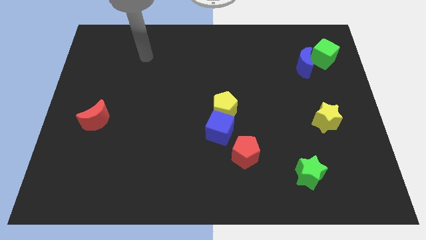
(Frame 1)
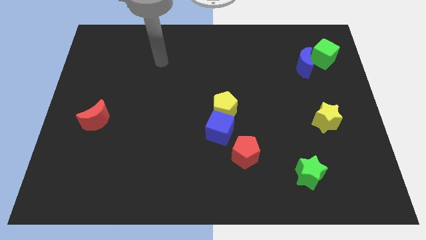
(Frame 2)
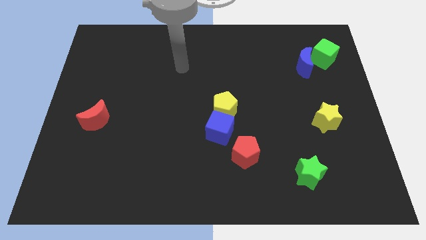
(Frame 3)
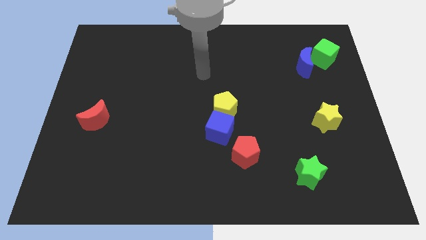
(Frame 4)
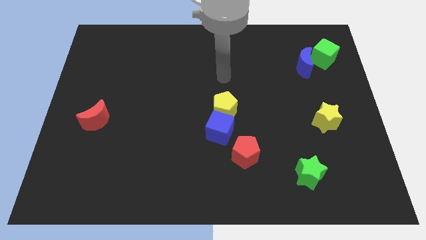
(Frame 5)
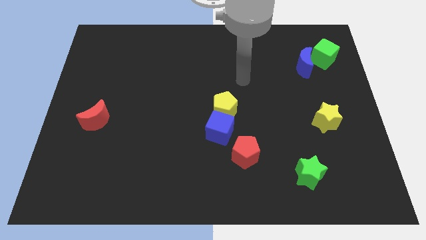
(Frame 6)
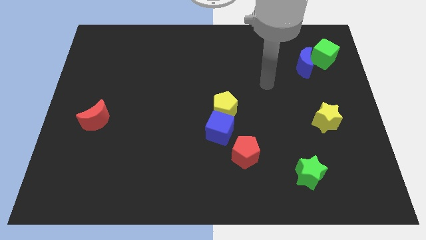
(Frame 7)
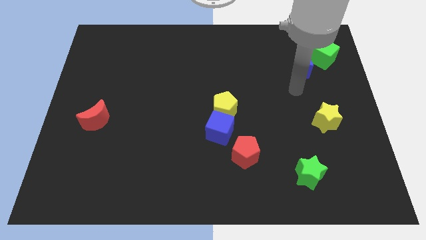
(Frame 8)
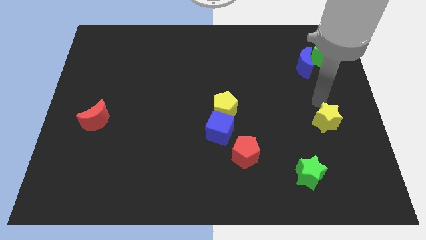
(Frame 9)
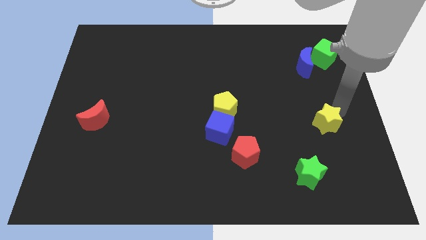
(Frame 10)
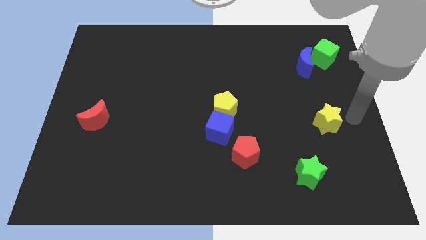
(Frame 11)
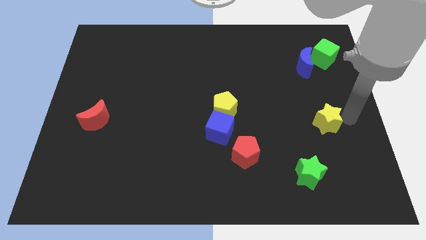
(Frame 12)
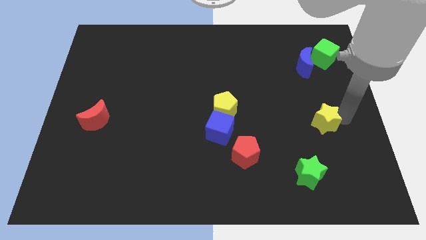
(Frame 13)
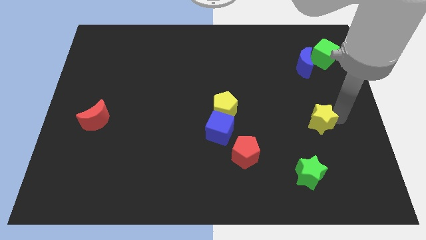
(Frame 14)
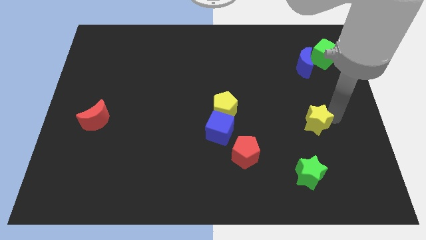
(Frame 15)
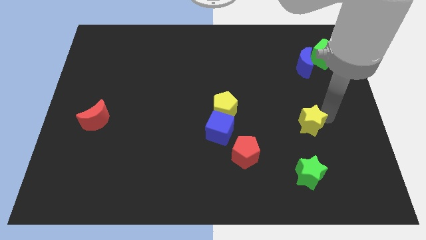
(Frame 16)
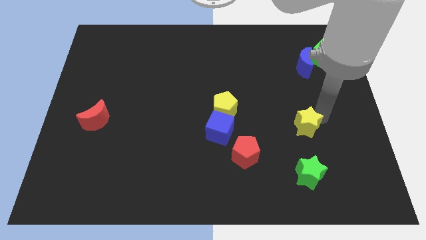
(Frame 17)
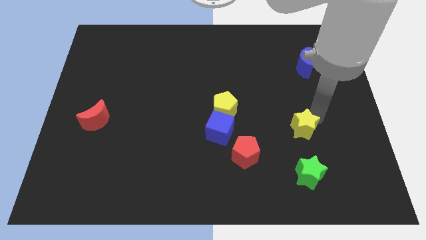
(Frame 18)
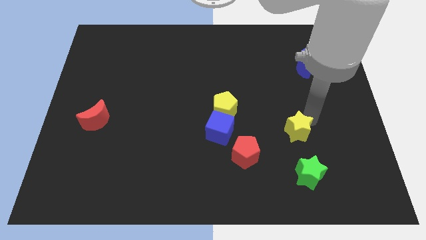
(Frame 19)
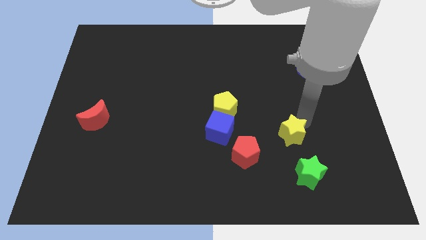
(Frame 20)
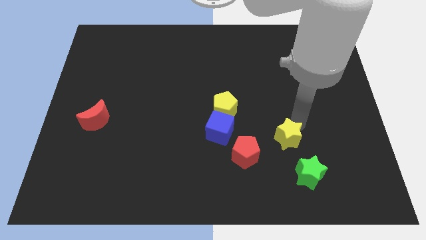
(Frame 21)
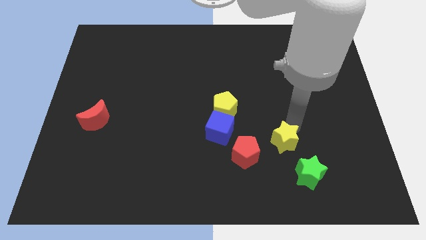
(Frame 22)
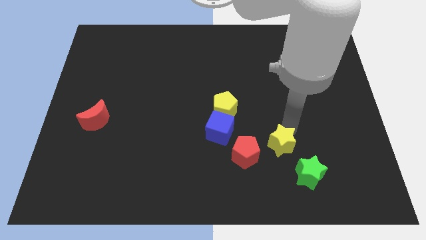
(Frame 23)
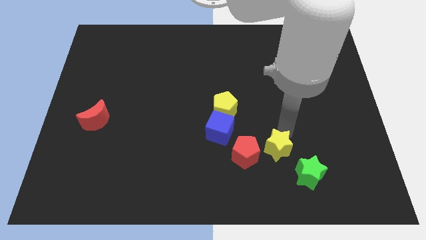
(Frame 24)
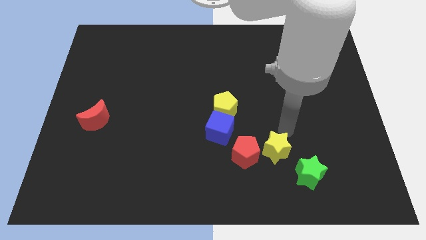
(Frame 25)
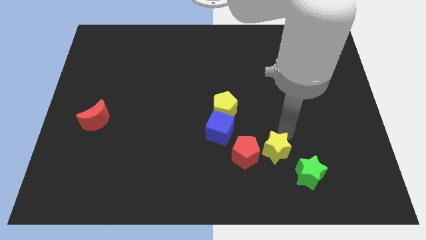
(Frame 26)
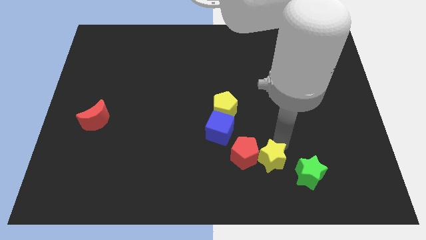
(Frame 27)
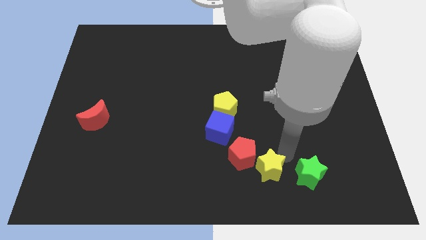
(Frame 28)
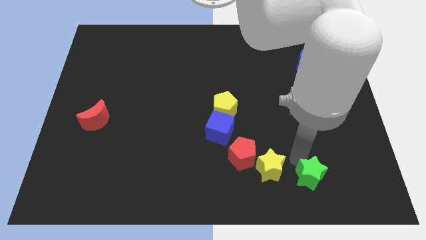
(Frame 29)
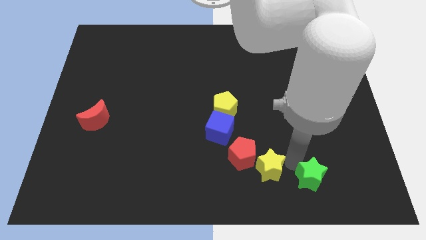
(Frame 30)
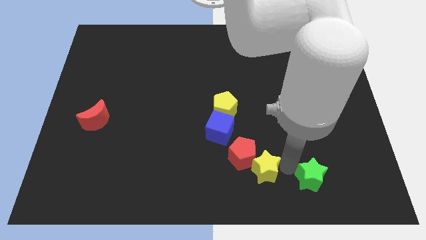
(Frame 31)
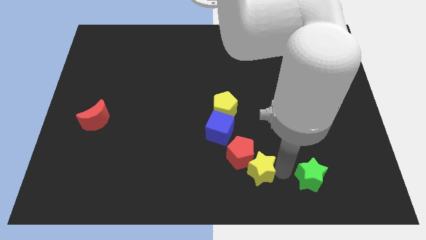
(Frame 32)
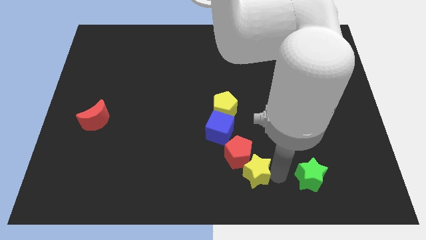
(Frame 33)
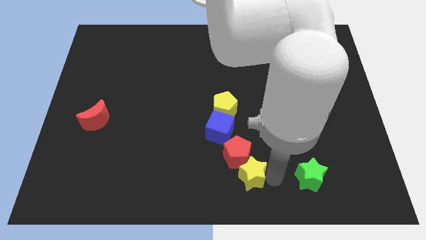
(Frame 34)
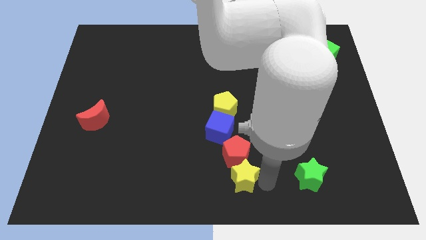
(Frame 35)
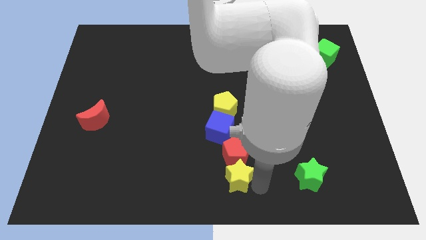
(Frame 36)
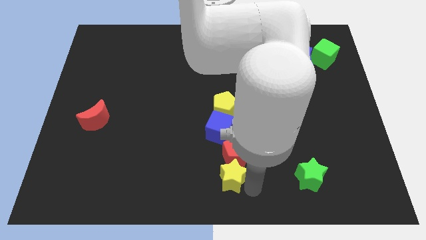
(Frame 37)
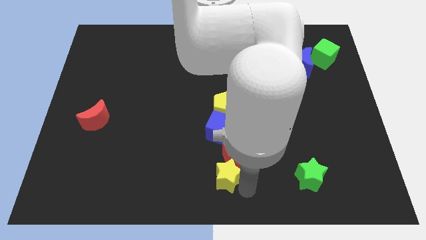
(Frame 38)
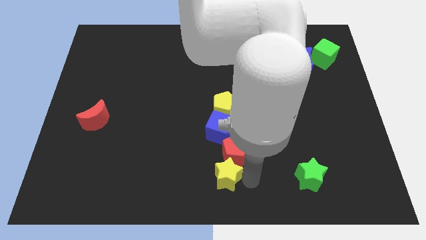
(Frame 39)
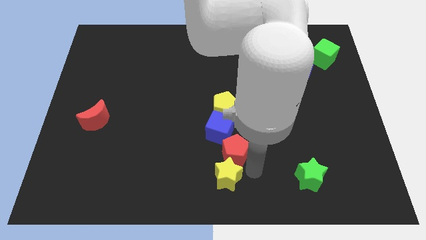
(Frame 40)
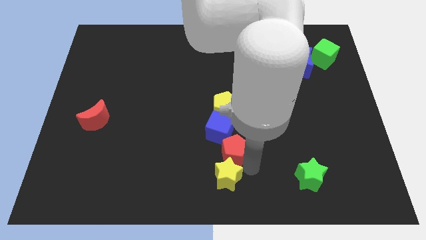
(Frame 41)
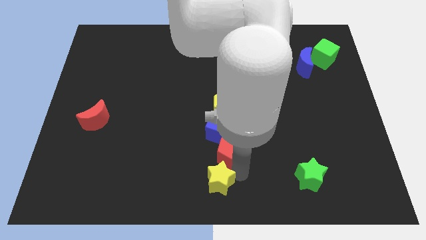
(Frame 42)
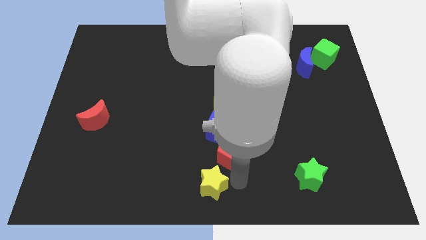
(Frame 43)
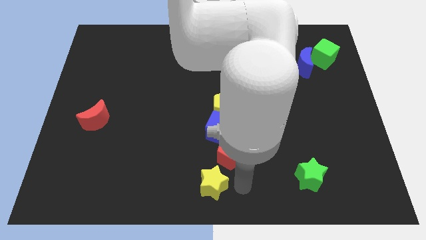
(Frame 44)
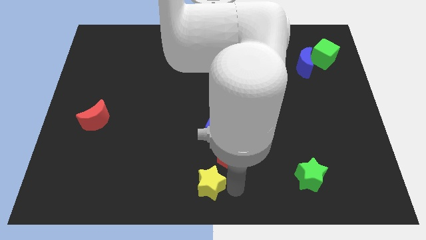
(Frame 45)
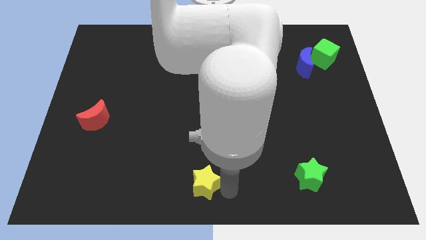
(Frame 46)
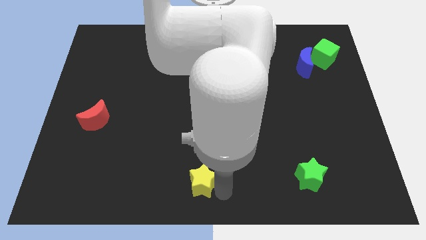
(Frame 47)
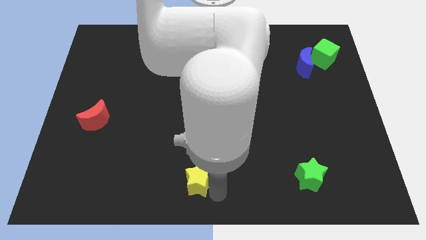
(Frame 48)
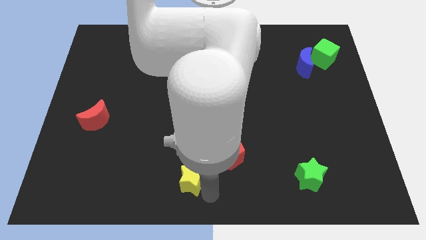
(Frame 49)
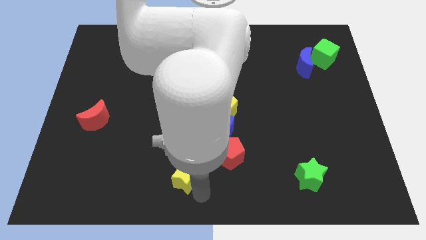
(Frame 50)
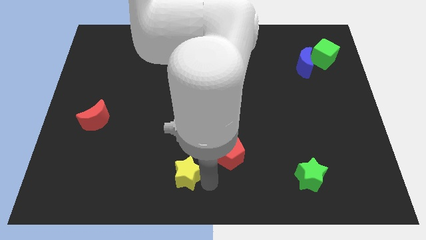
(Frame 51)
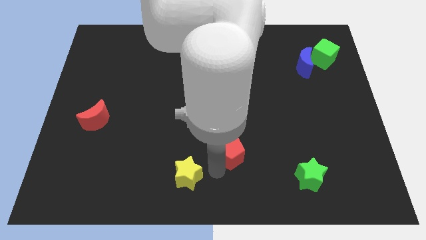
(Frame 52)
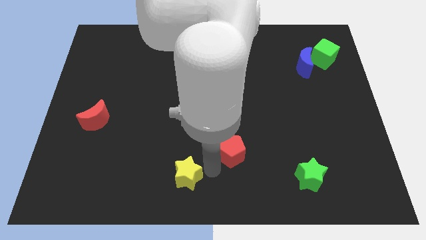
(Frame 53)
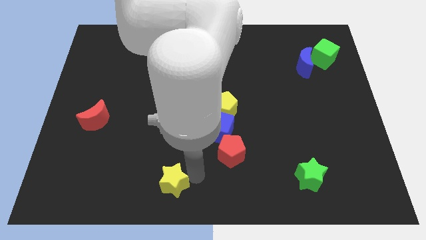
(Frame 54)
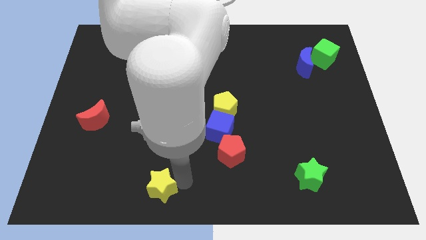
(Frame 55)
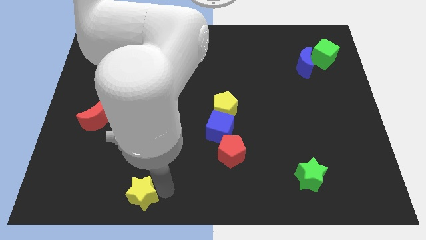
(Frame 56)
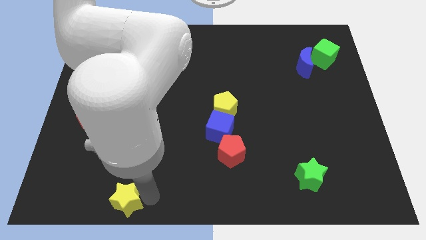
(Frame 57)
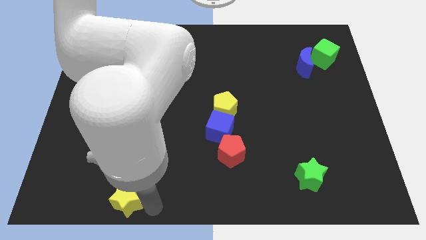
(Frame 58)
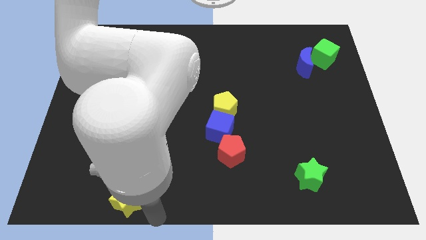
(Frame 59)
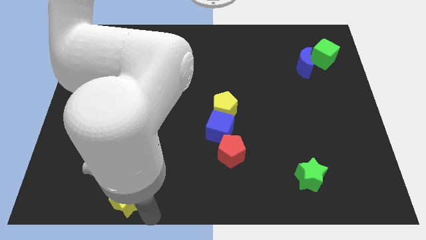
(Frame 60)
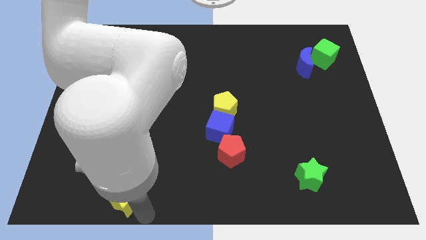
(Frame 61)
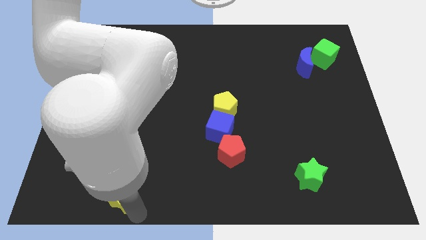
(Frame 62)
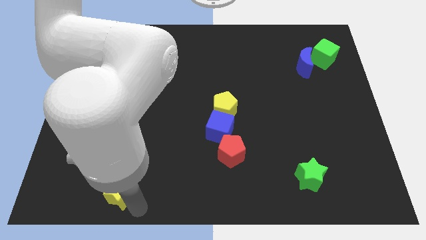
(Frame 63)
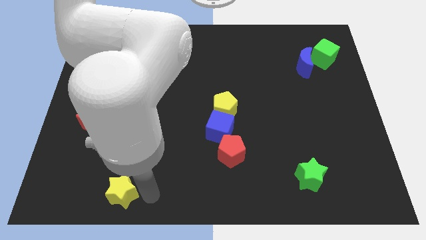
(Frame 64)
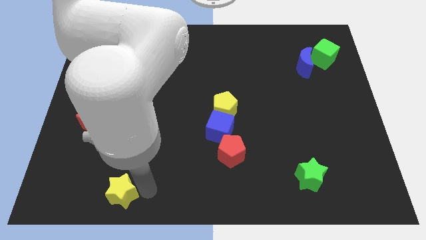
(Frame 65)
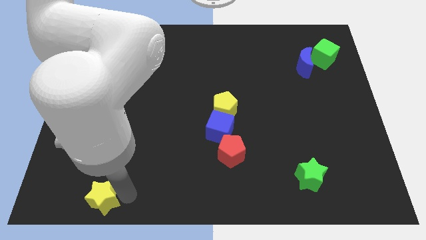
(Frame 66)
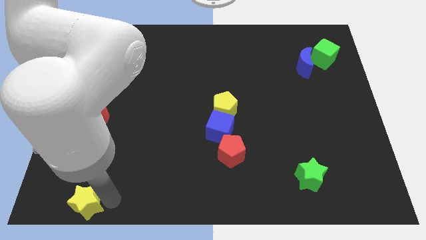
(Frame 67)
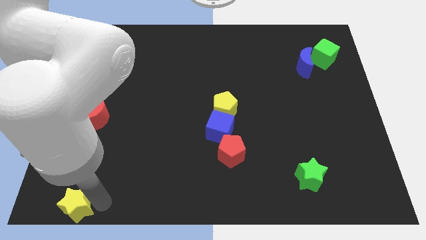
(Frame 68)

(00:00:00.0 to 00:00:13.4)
push the yellow star to the bottom left of the board
